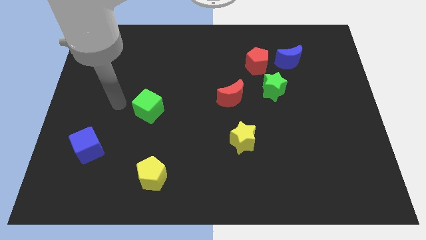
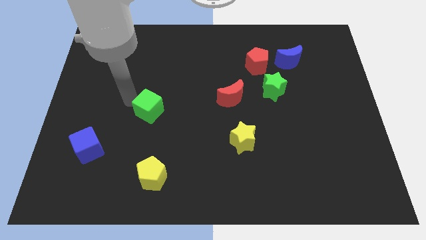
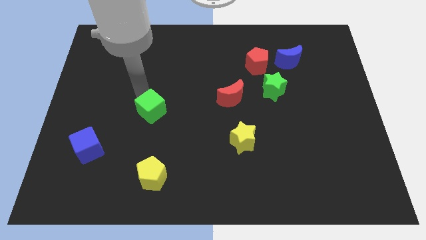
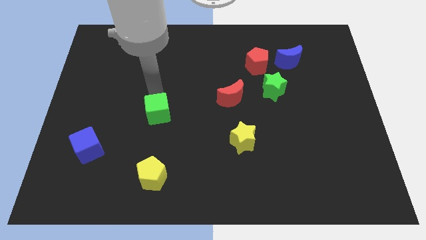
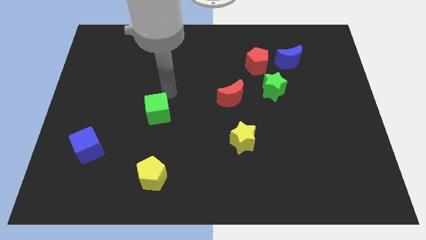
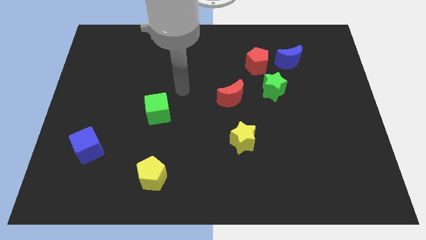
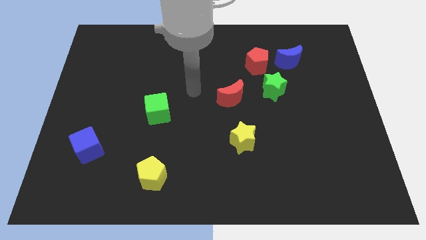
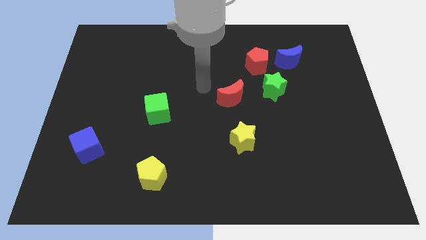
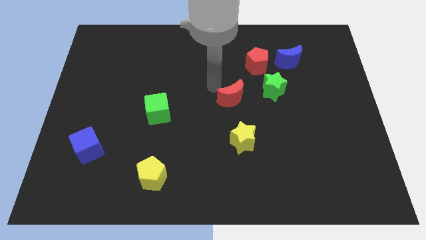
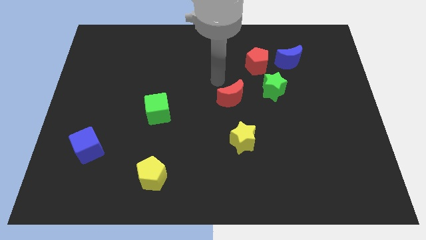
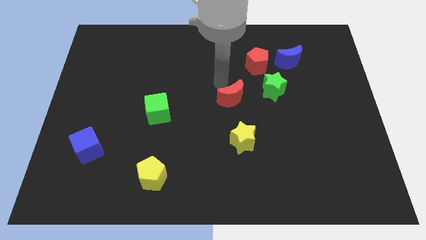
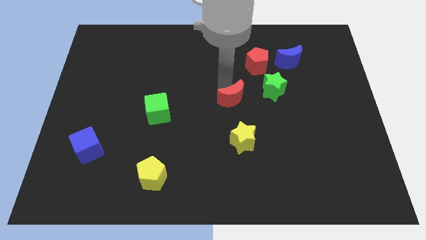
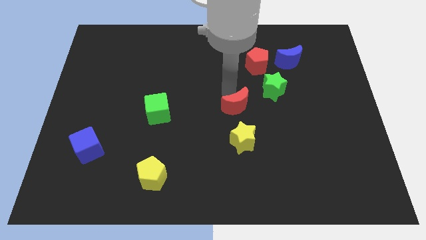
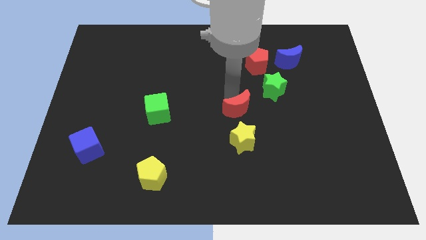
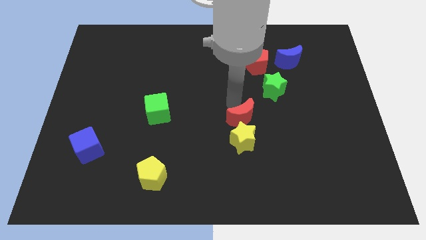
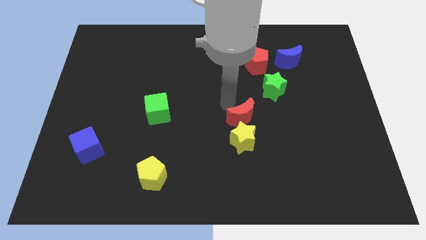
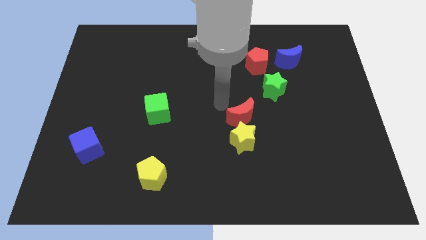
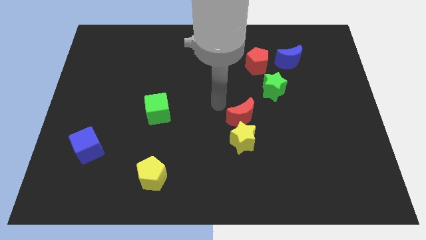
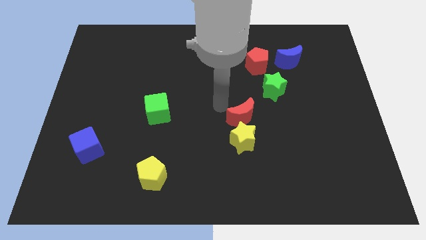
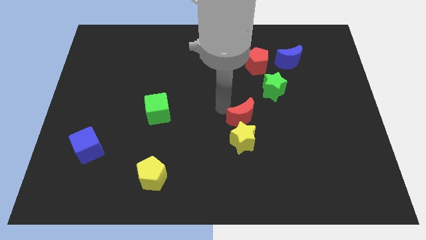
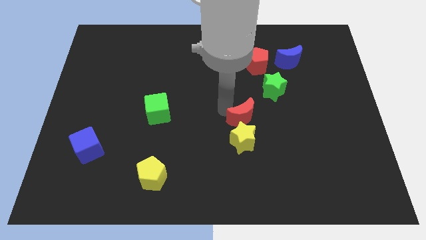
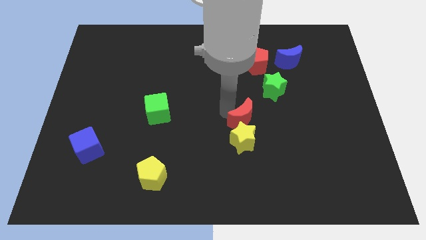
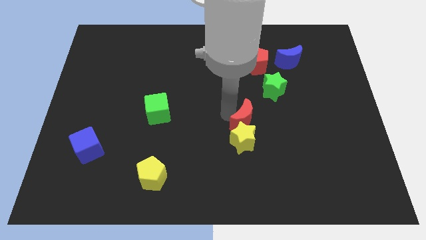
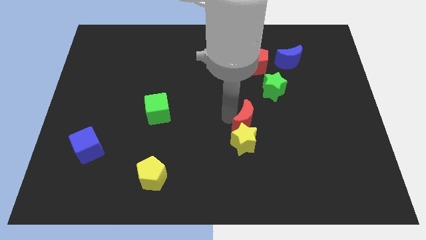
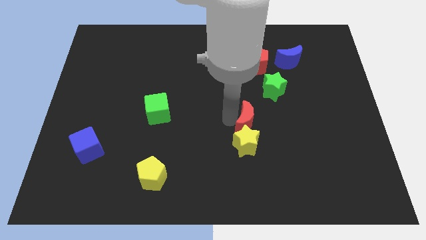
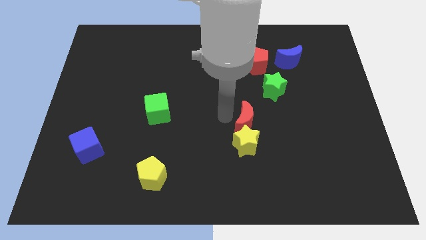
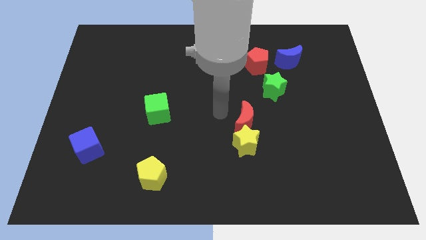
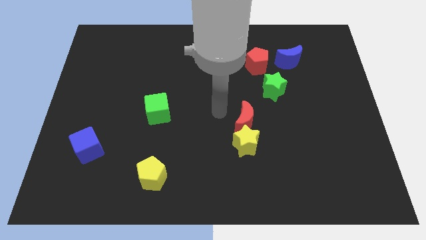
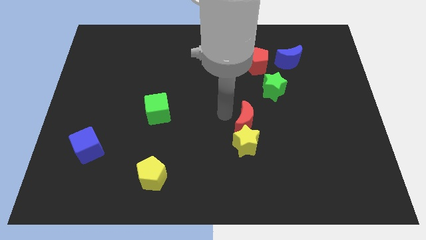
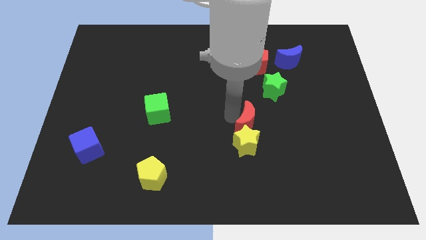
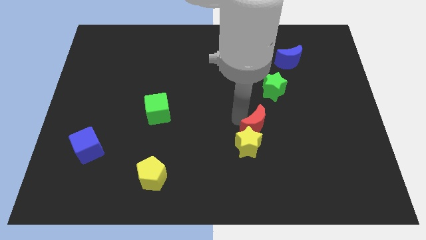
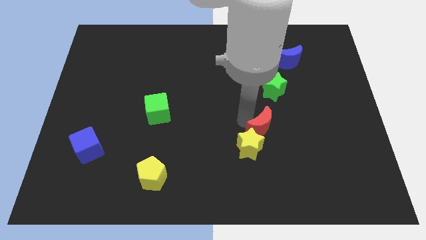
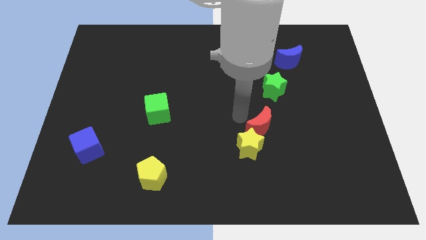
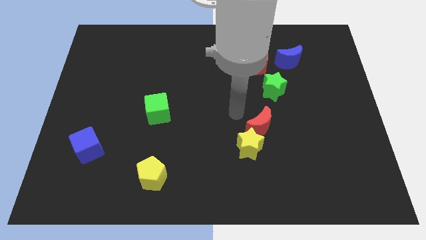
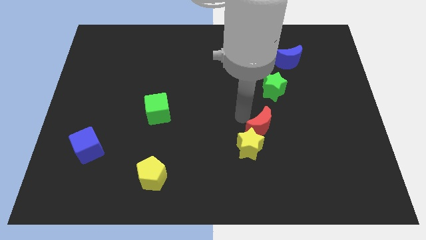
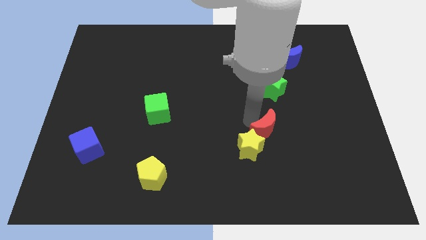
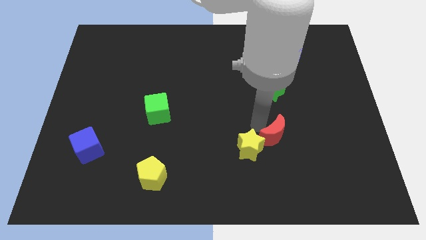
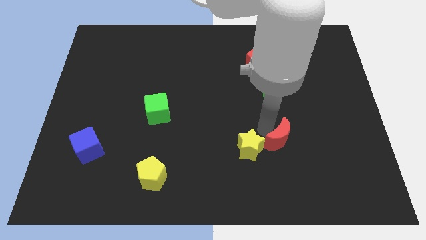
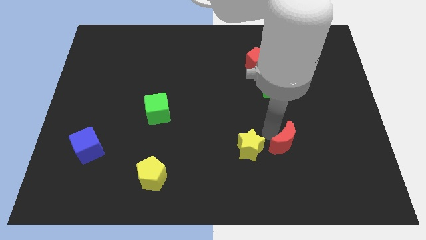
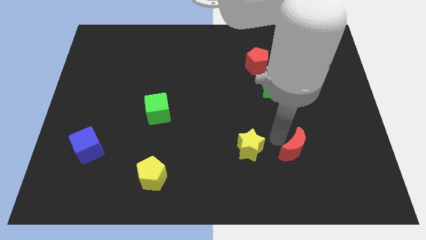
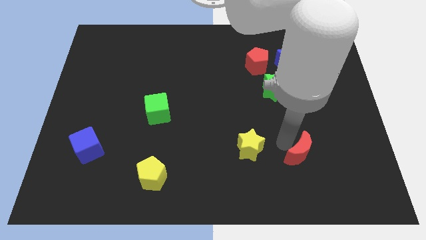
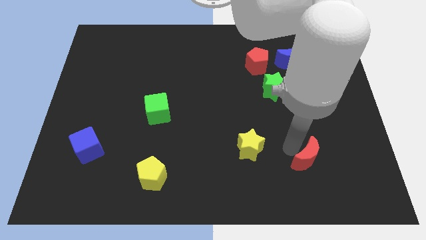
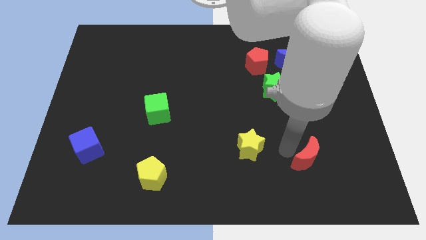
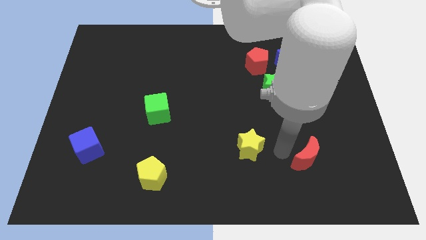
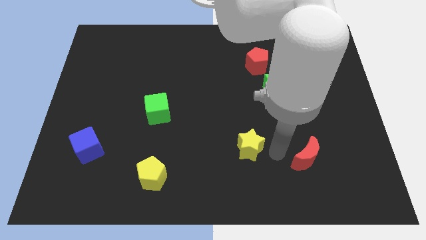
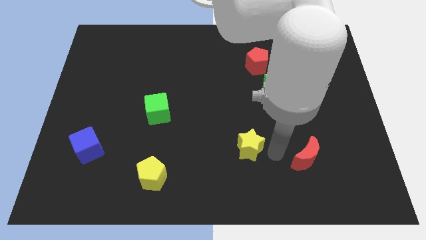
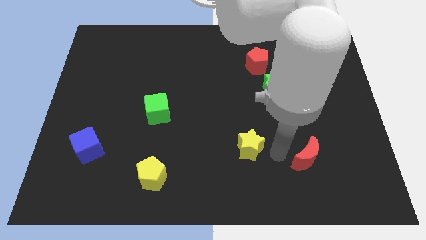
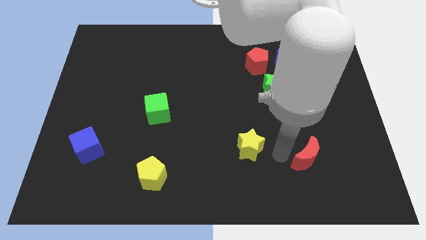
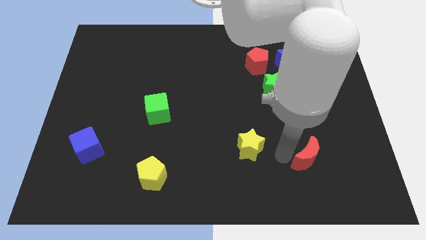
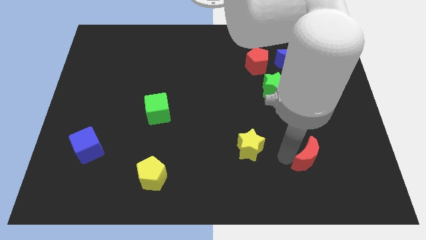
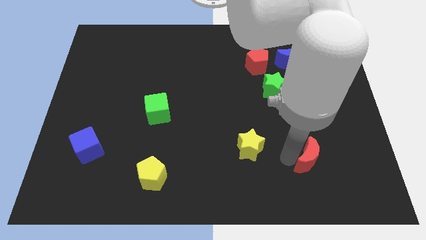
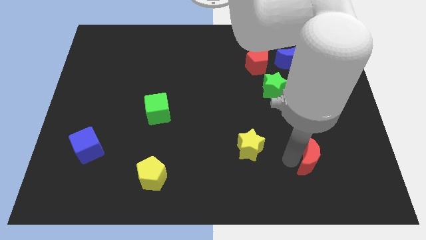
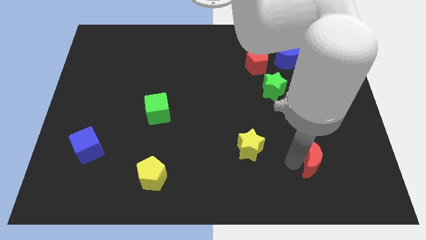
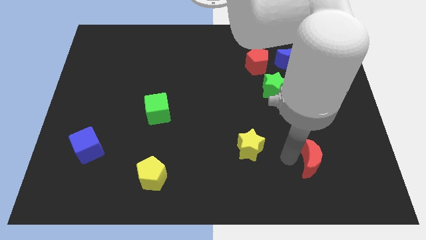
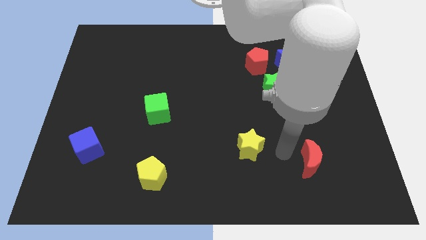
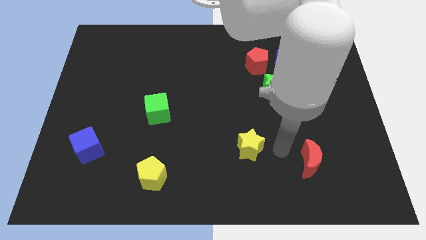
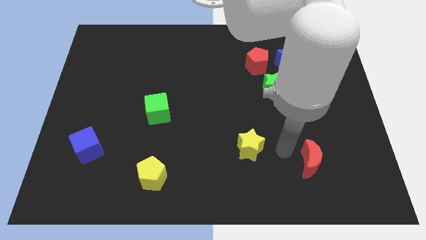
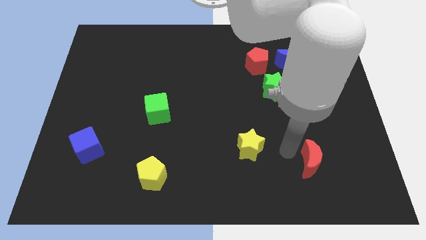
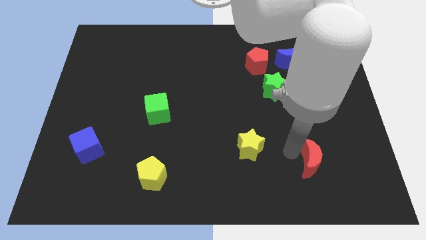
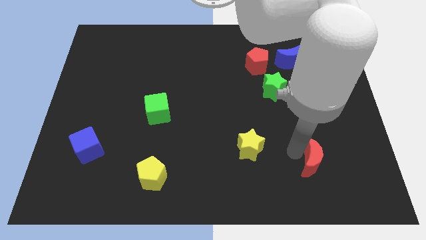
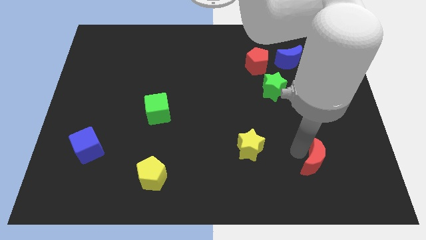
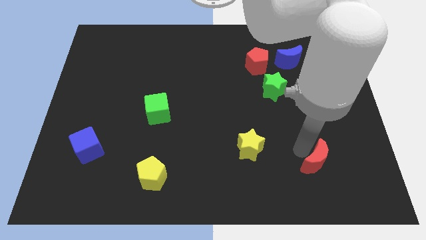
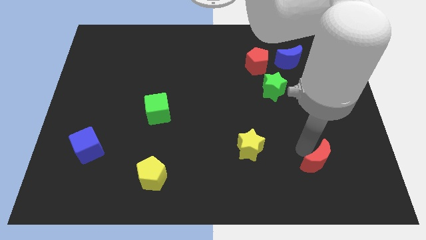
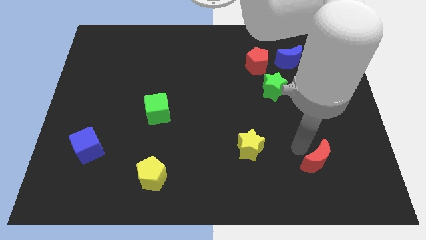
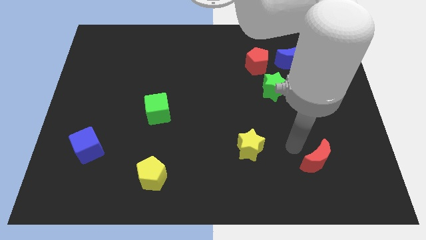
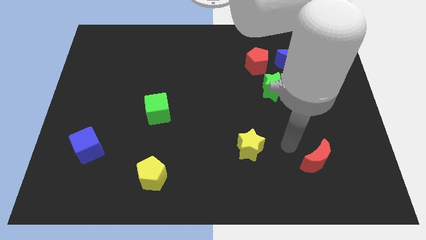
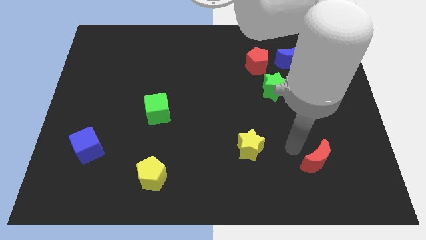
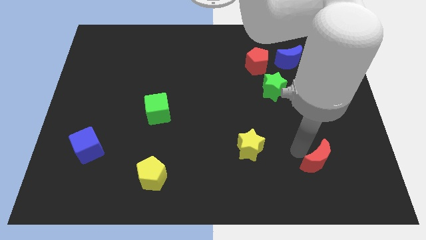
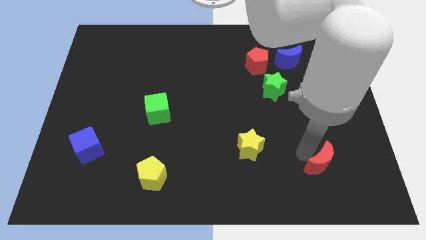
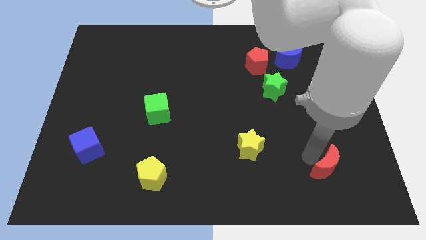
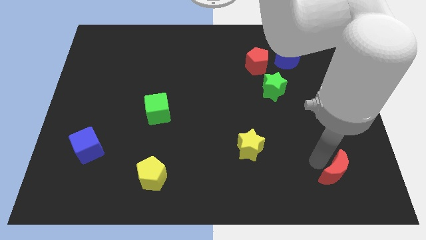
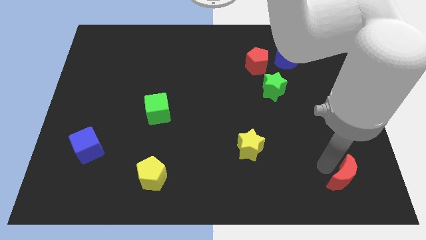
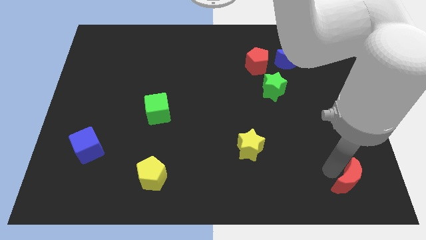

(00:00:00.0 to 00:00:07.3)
move the red moon to the bottom right of the board
